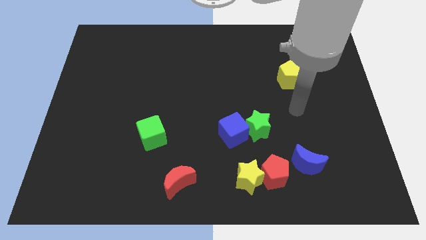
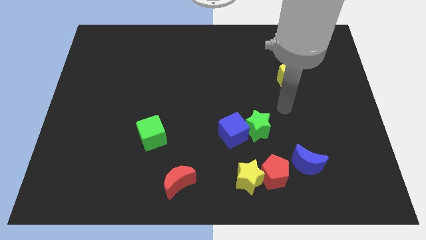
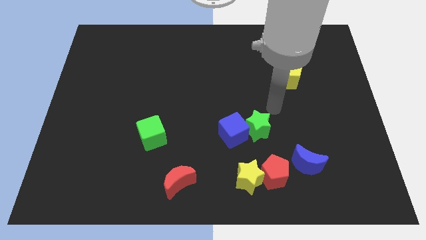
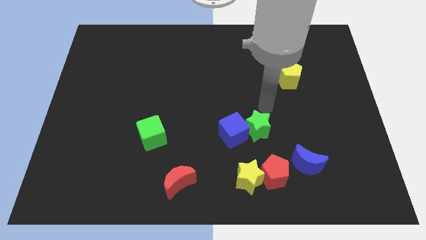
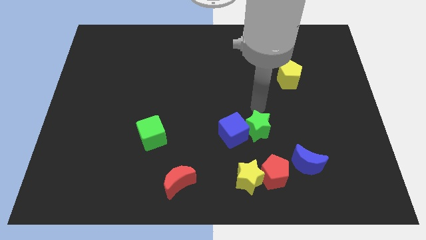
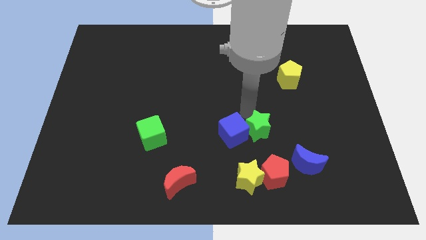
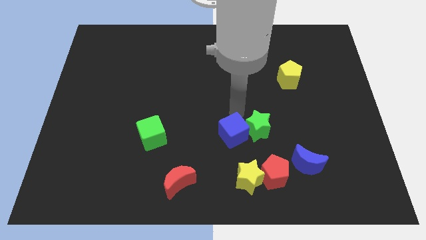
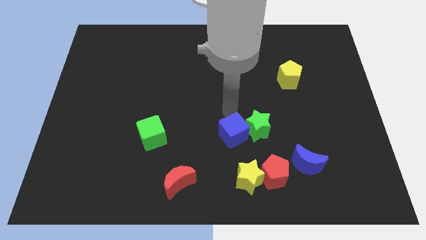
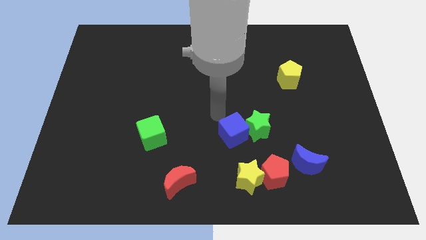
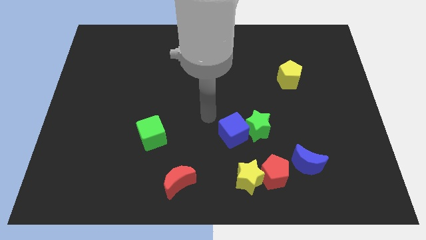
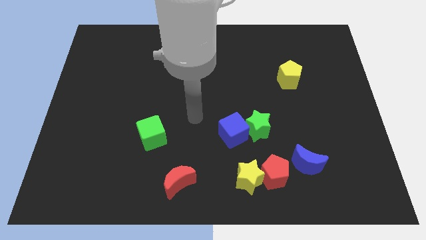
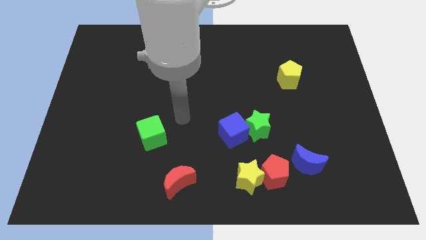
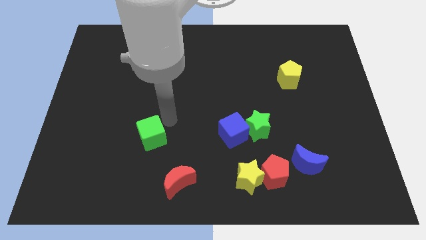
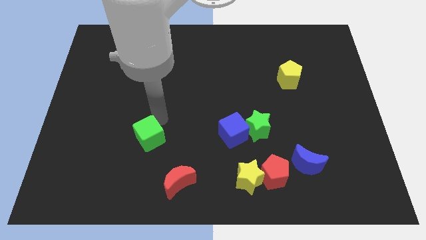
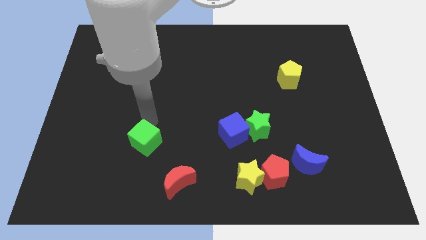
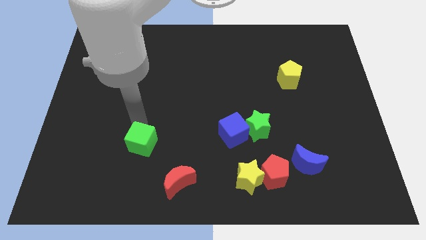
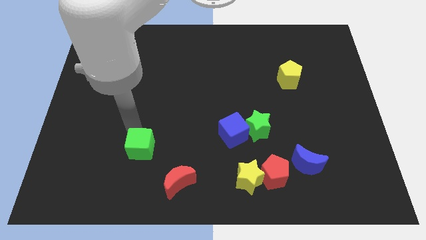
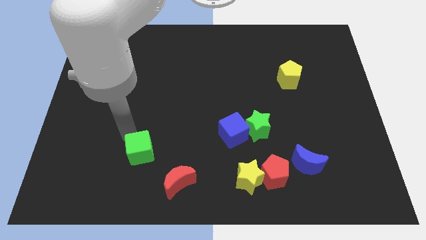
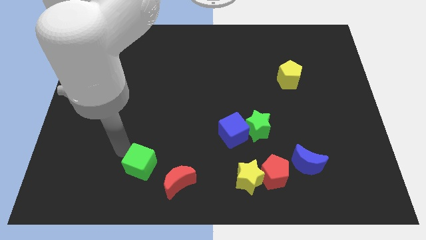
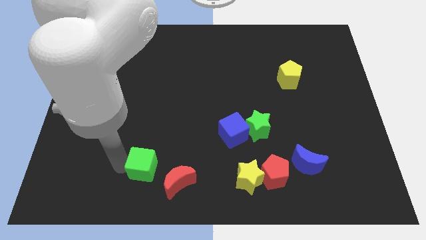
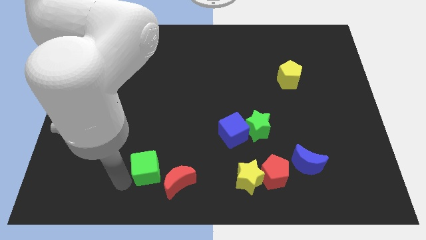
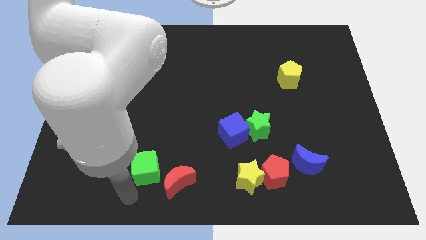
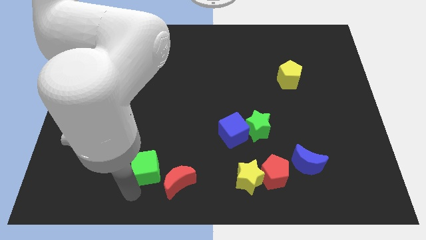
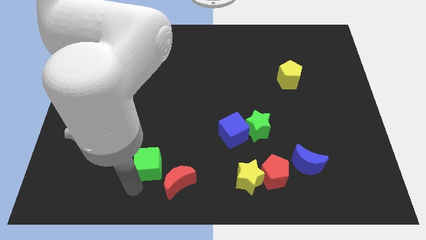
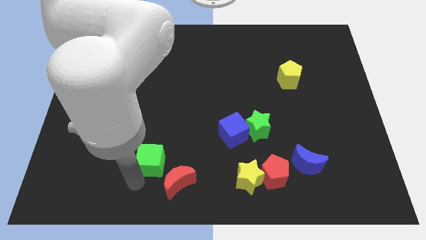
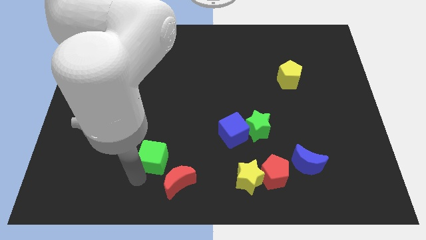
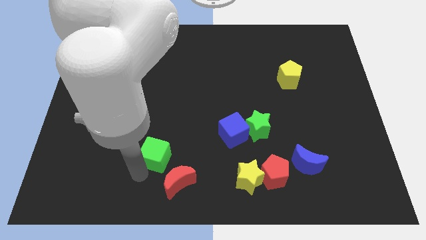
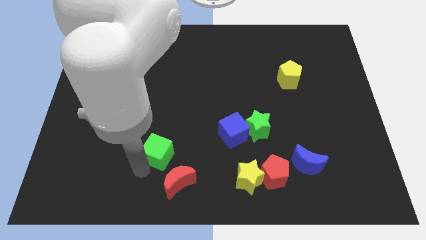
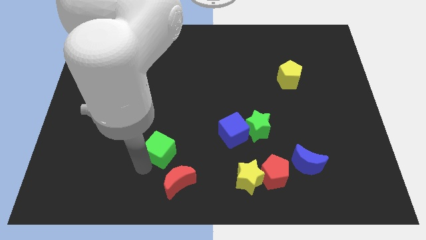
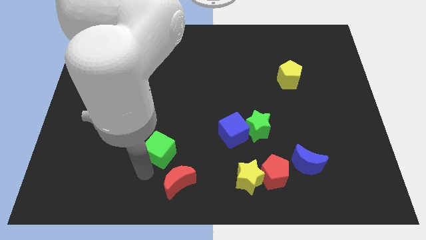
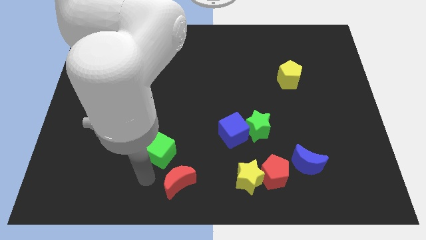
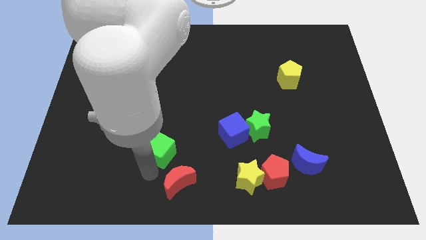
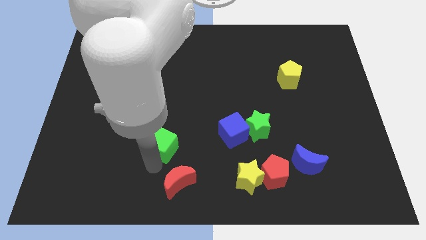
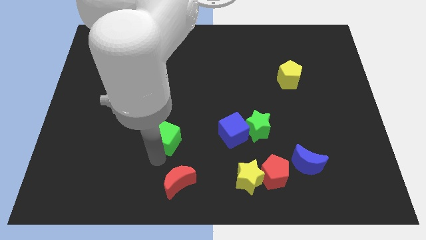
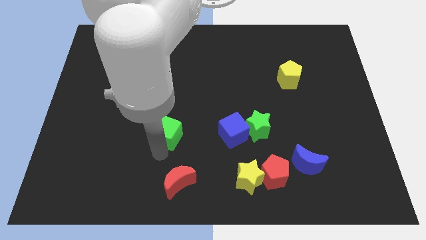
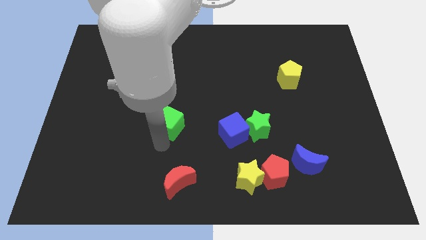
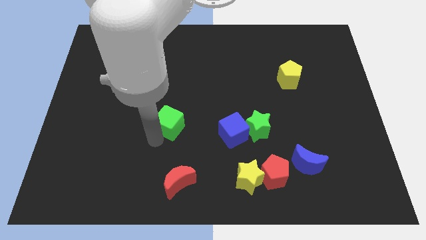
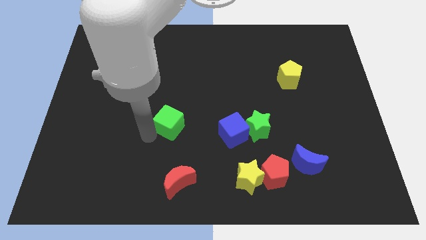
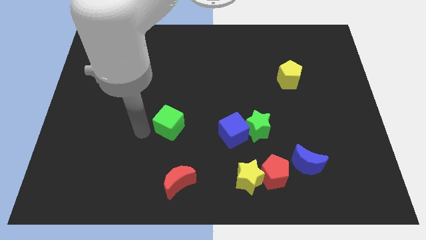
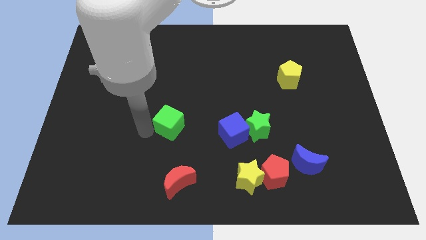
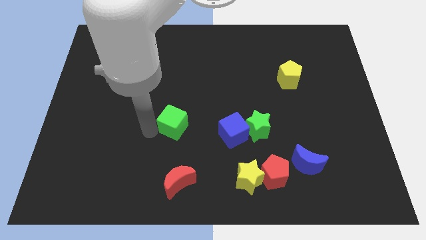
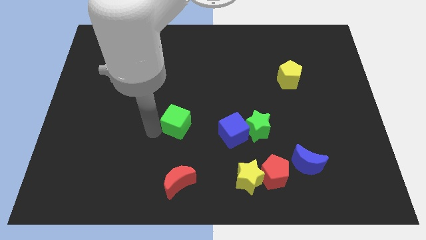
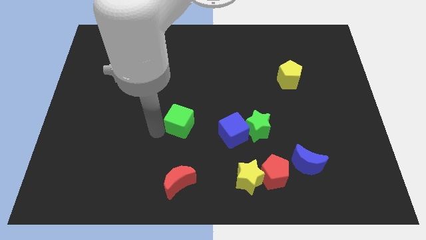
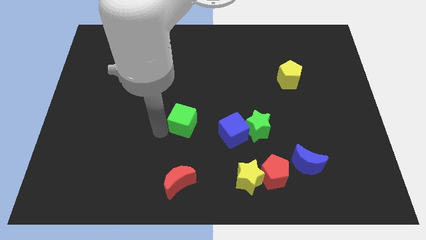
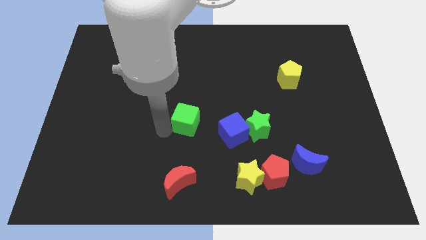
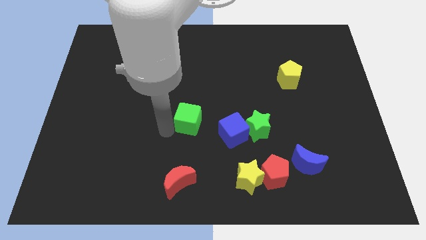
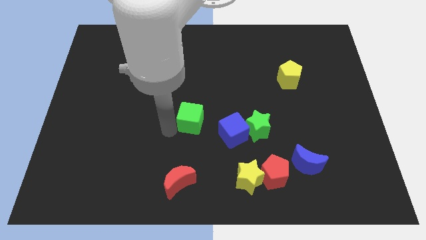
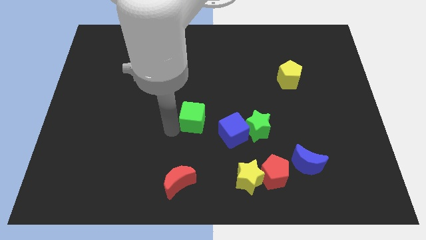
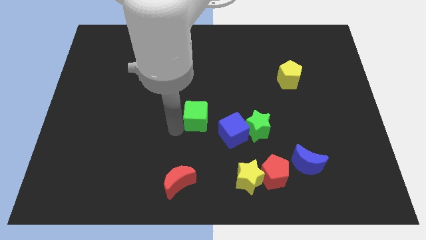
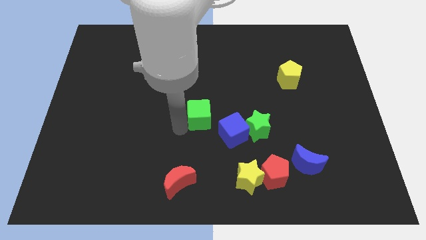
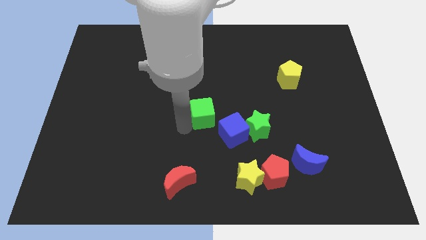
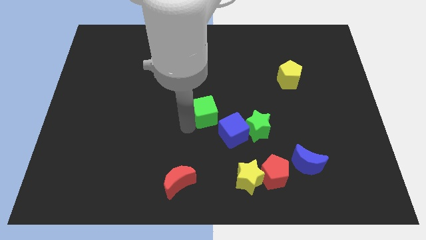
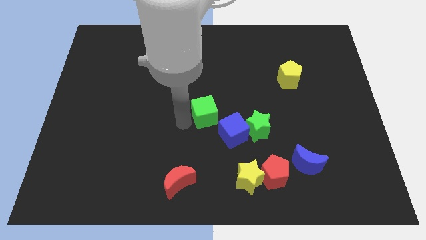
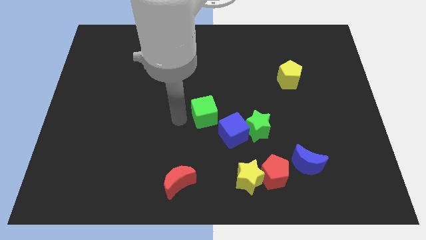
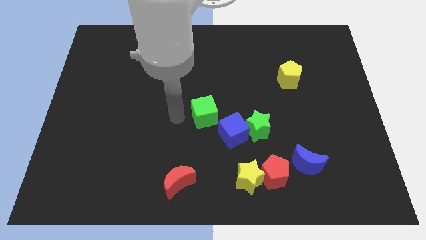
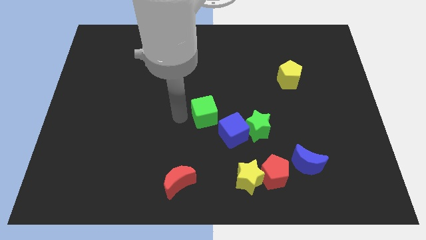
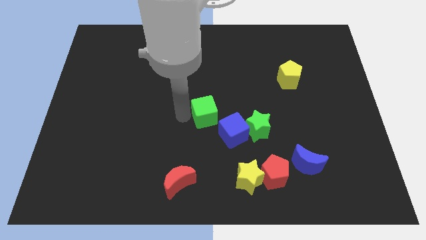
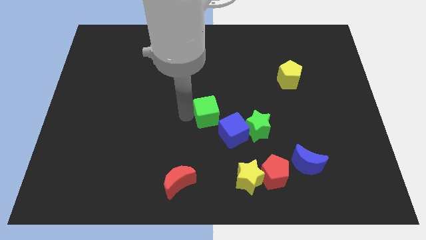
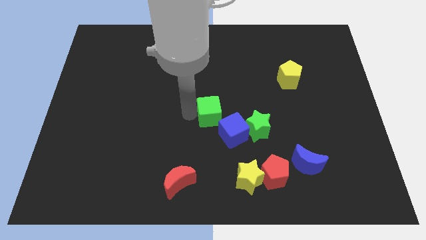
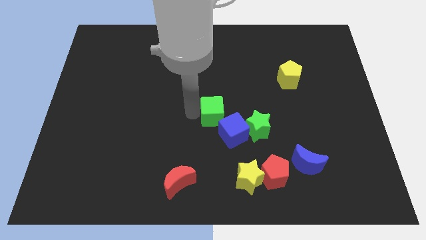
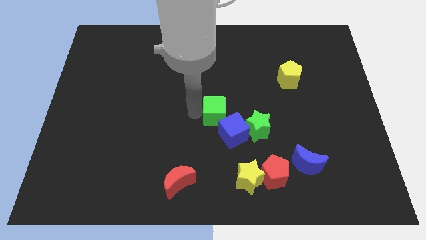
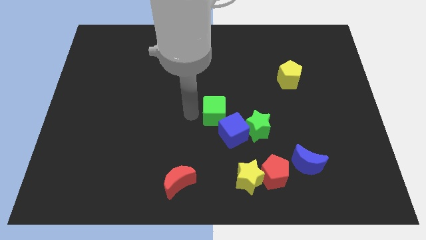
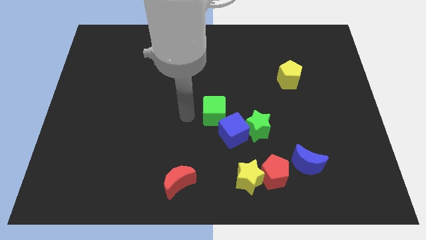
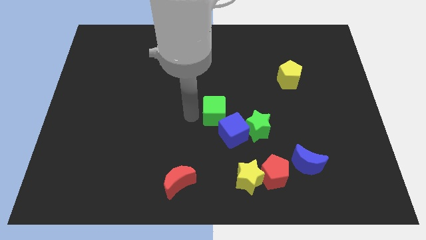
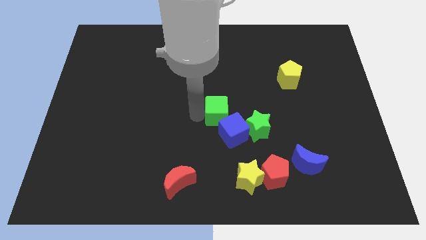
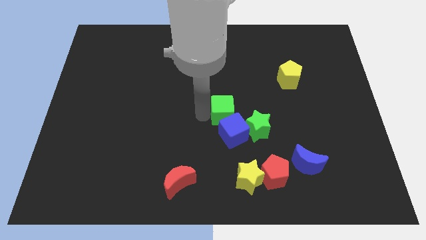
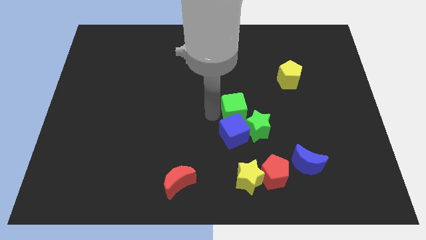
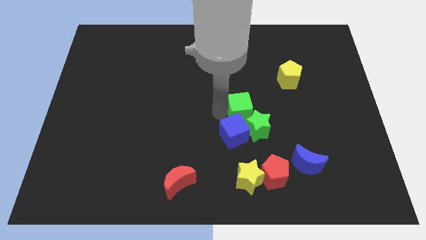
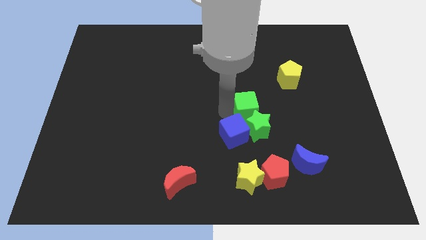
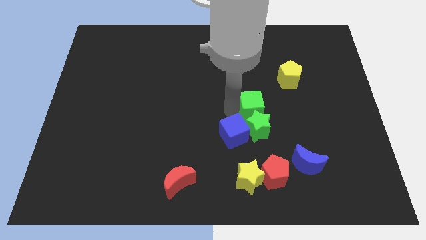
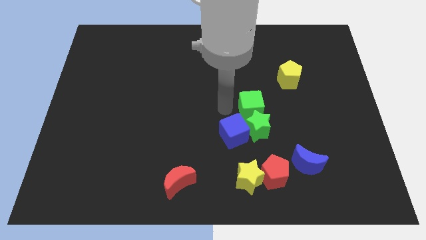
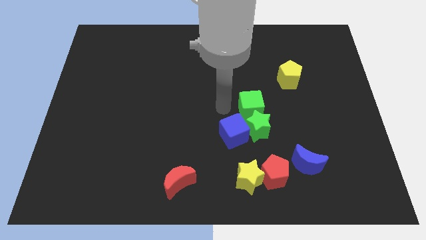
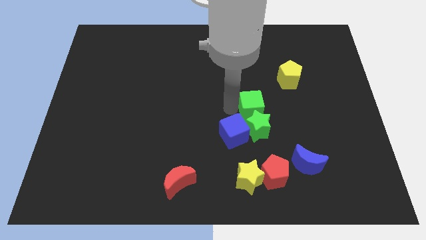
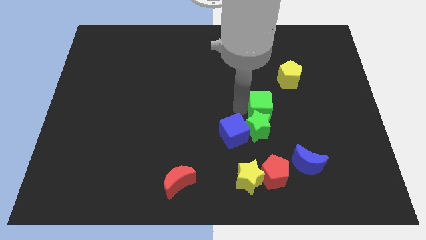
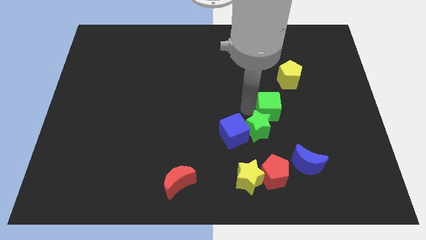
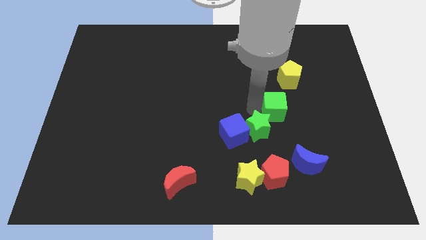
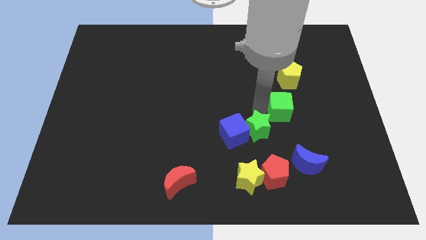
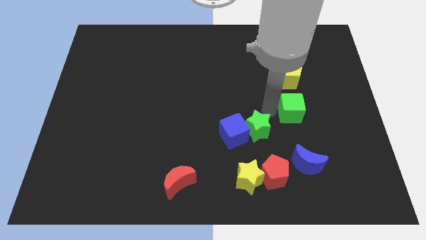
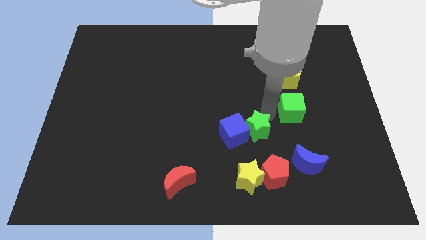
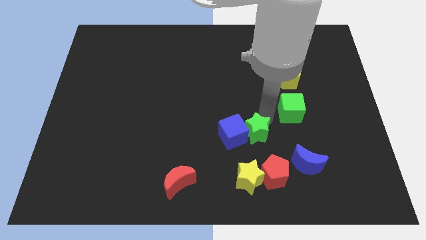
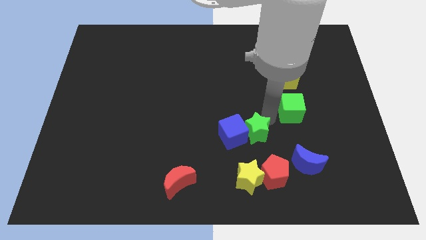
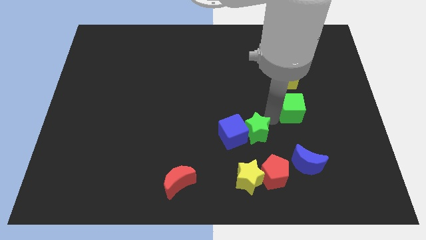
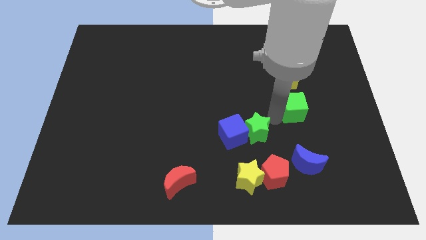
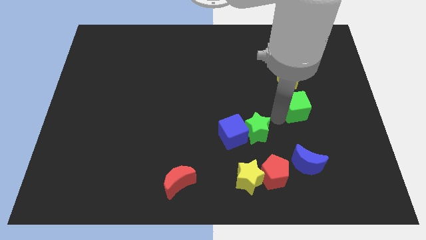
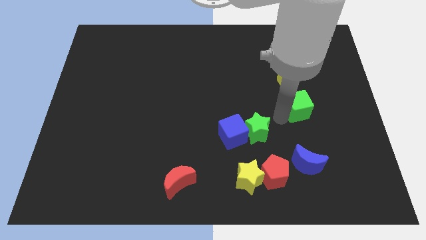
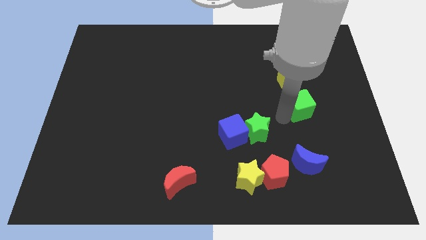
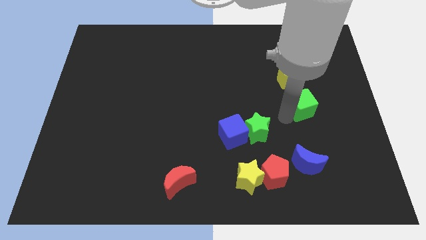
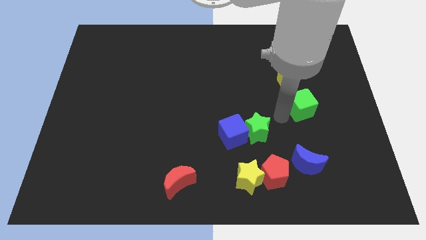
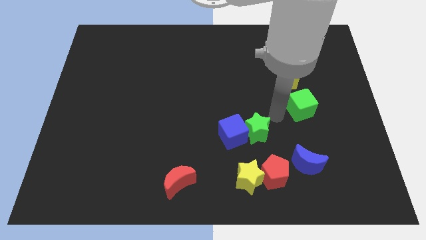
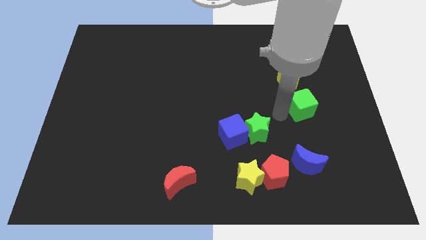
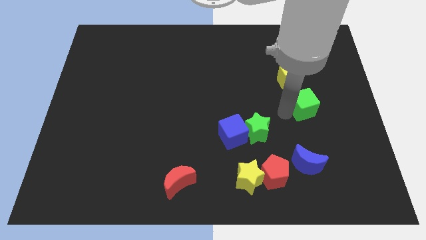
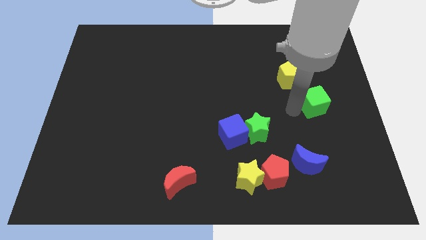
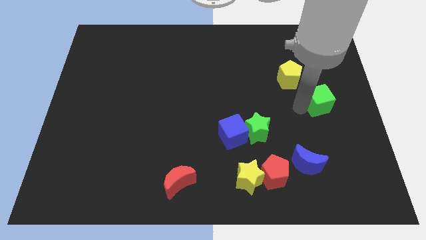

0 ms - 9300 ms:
push the green cube to the center right
